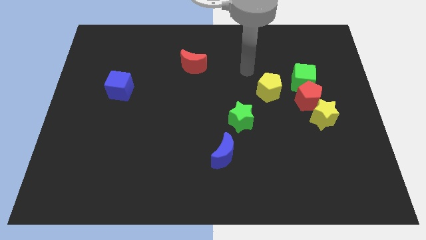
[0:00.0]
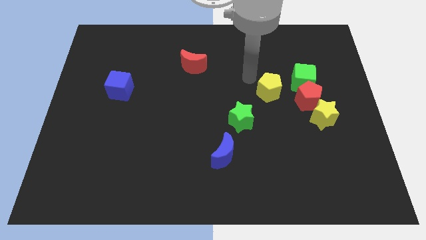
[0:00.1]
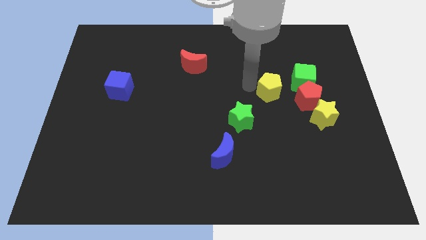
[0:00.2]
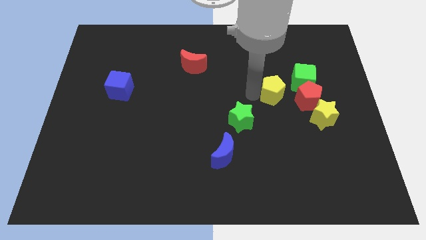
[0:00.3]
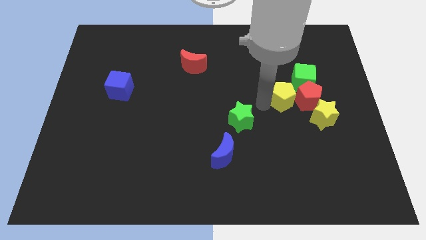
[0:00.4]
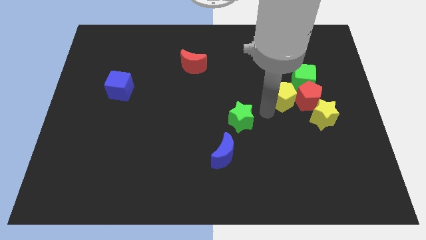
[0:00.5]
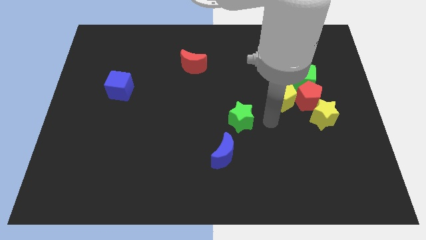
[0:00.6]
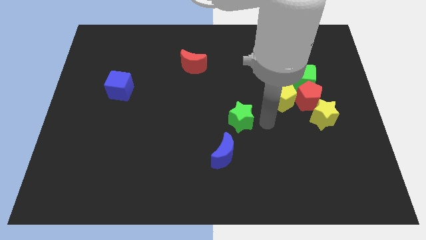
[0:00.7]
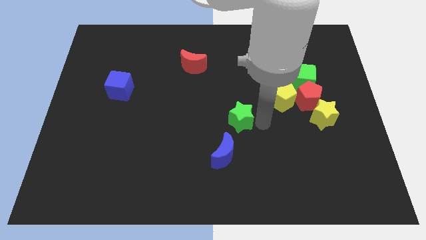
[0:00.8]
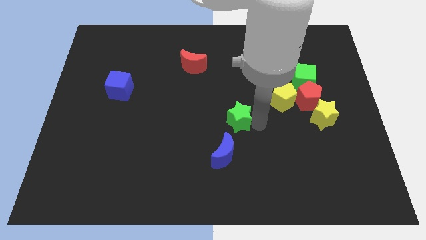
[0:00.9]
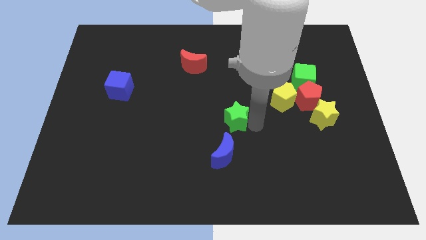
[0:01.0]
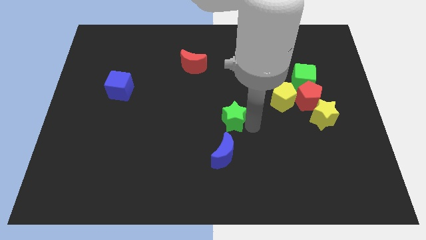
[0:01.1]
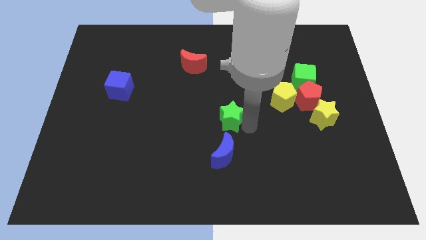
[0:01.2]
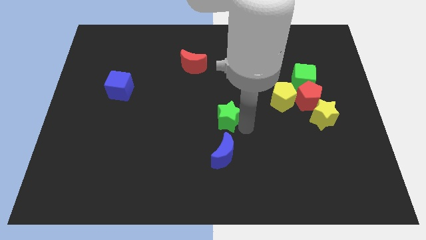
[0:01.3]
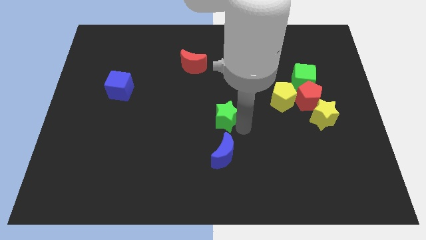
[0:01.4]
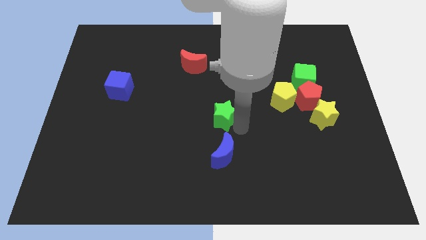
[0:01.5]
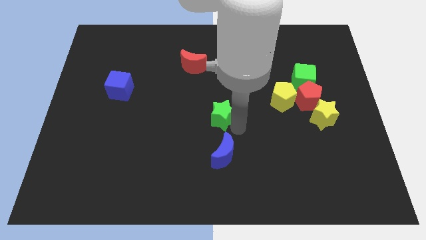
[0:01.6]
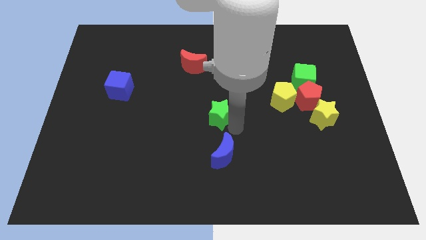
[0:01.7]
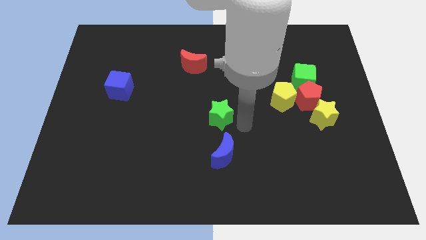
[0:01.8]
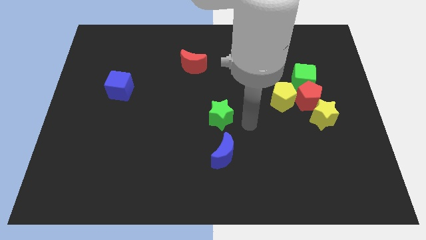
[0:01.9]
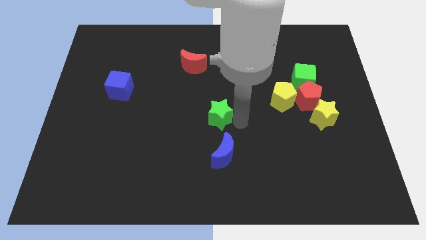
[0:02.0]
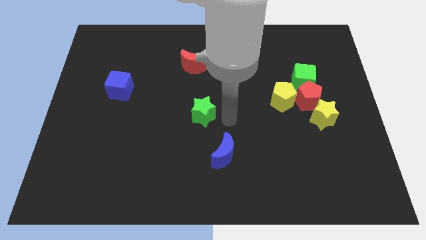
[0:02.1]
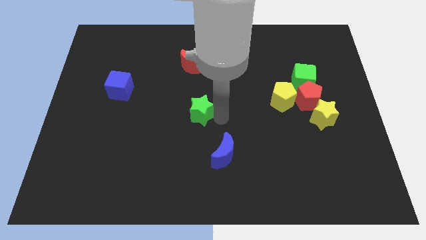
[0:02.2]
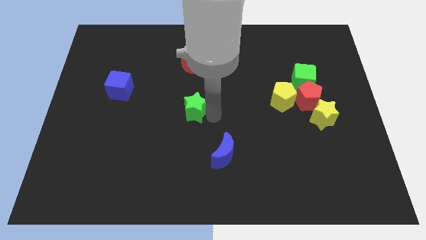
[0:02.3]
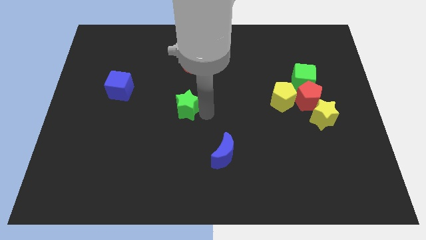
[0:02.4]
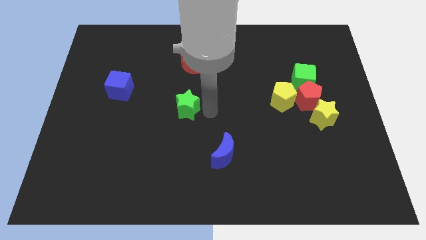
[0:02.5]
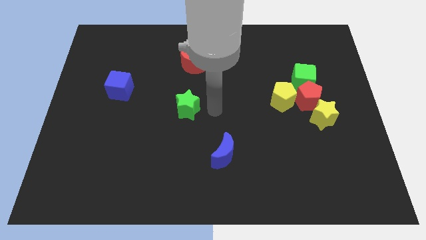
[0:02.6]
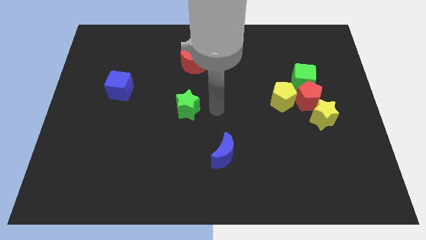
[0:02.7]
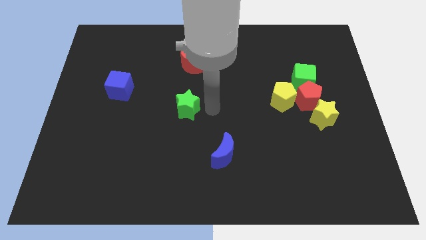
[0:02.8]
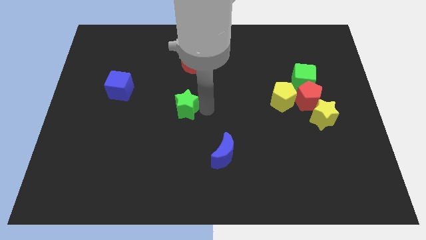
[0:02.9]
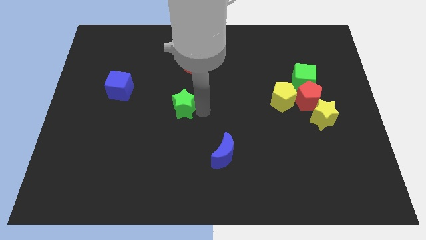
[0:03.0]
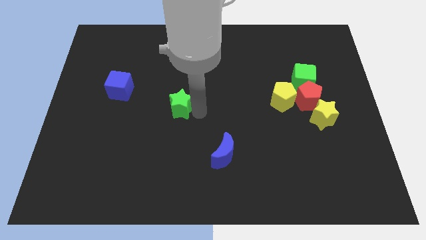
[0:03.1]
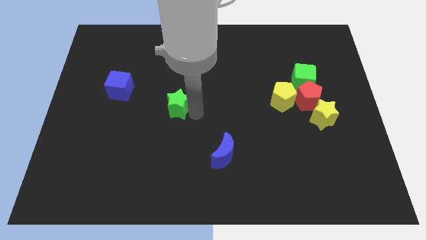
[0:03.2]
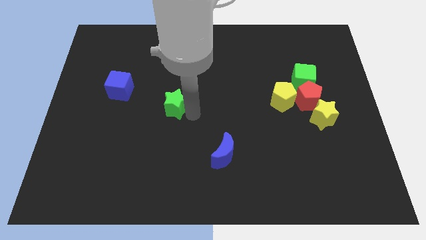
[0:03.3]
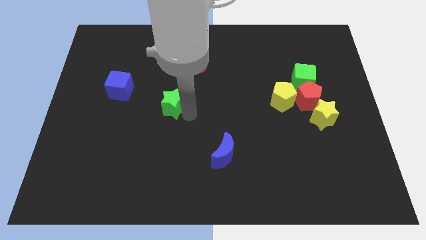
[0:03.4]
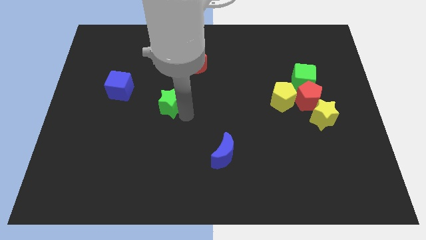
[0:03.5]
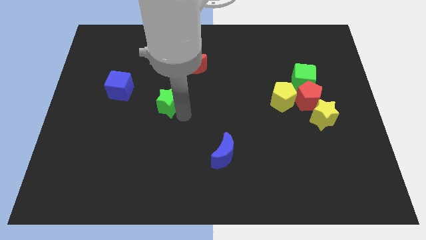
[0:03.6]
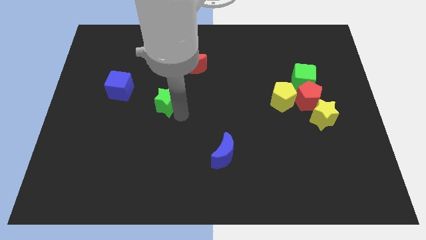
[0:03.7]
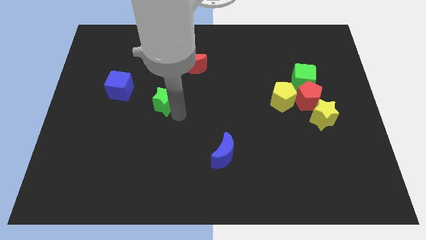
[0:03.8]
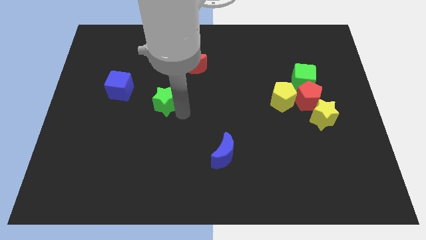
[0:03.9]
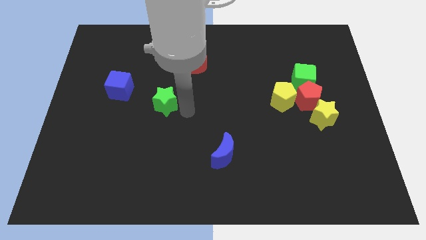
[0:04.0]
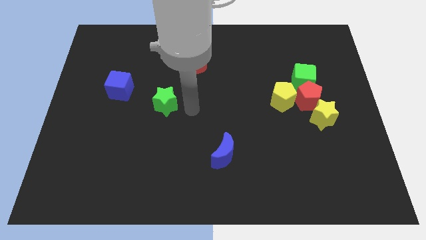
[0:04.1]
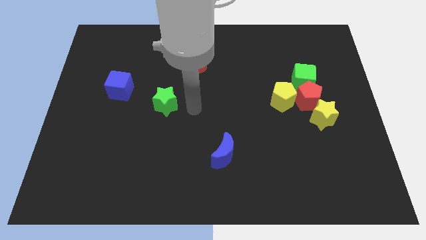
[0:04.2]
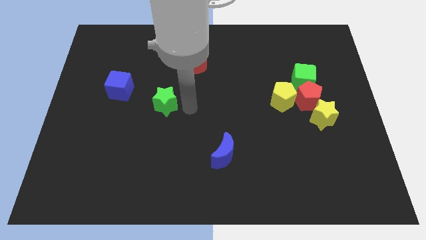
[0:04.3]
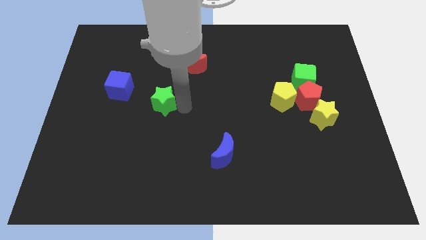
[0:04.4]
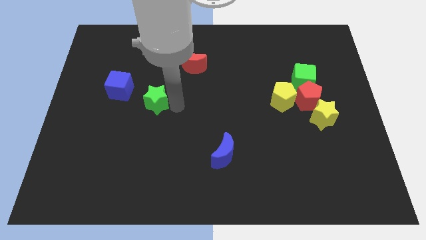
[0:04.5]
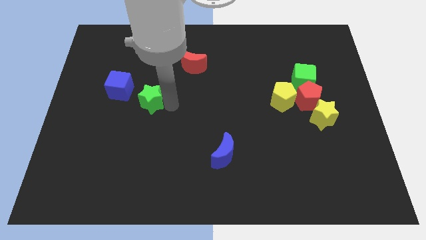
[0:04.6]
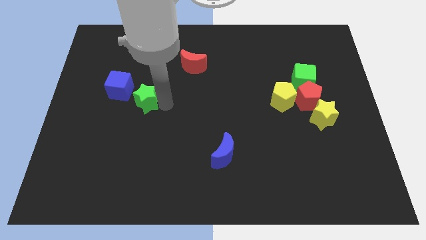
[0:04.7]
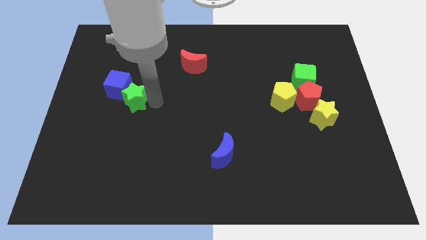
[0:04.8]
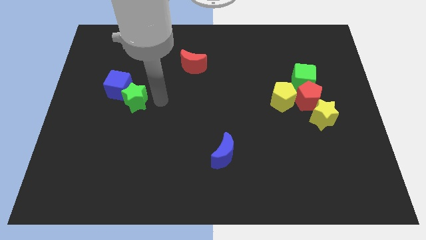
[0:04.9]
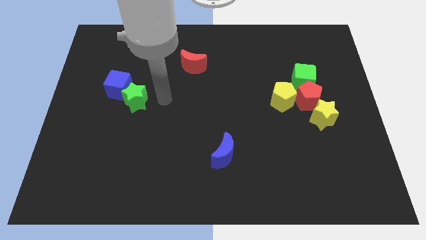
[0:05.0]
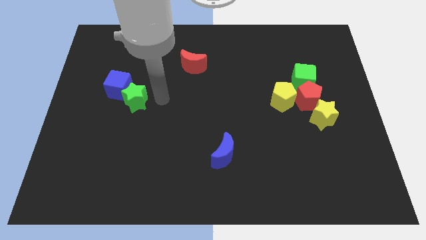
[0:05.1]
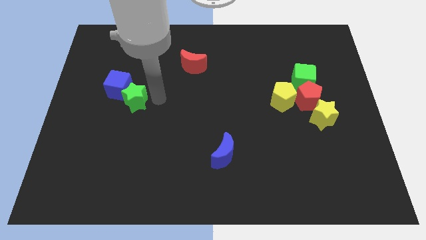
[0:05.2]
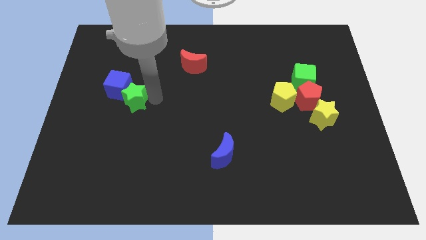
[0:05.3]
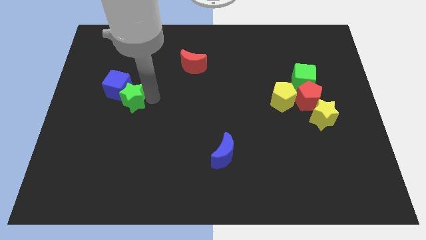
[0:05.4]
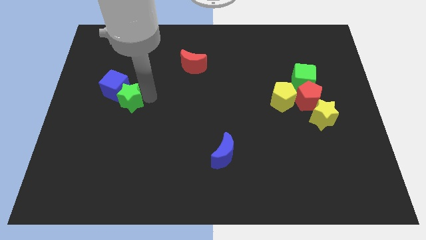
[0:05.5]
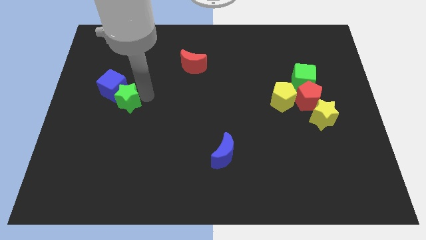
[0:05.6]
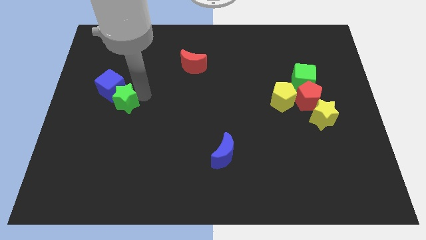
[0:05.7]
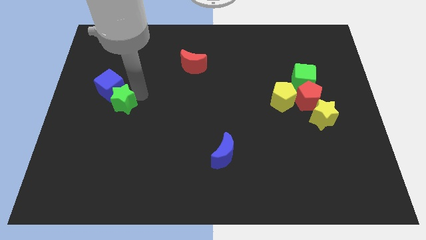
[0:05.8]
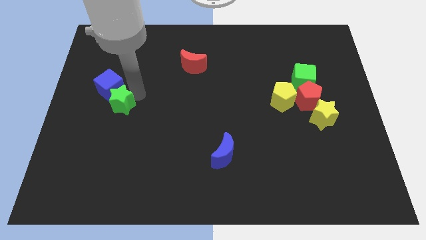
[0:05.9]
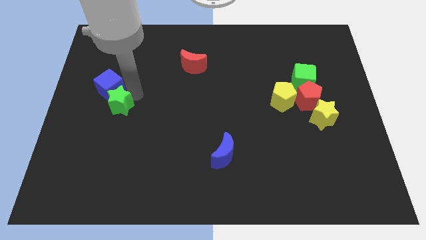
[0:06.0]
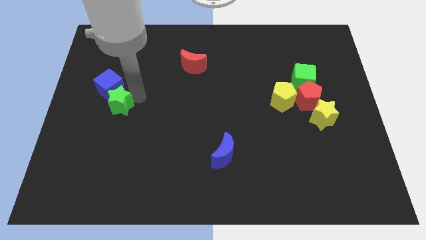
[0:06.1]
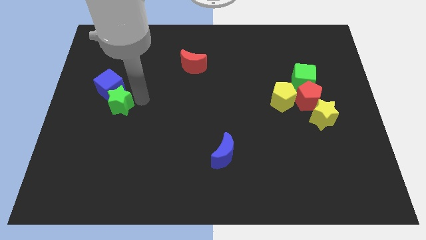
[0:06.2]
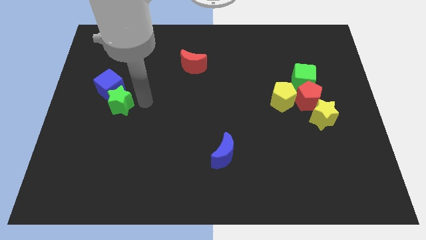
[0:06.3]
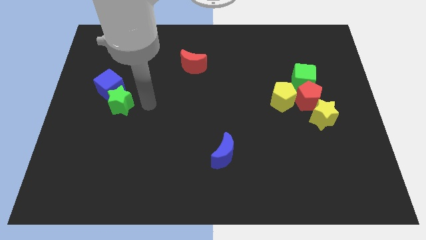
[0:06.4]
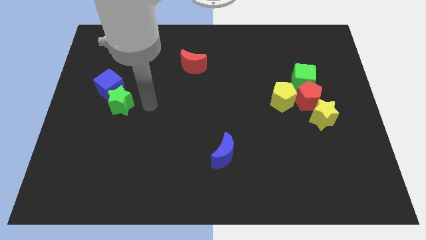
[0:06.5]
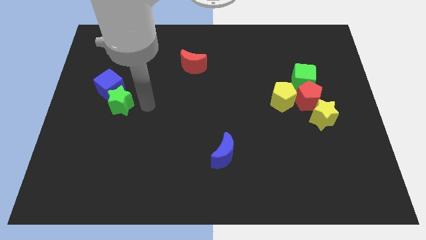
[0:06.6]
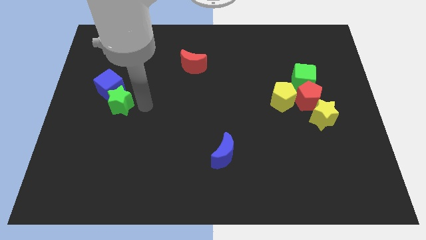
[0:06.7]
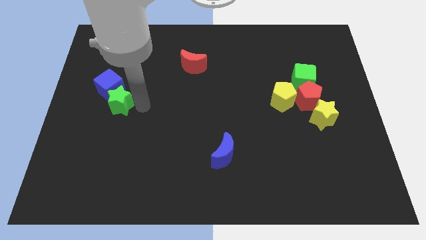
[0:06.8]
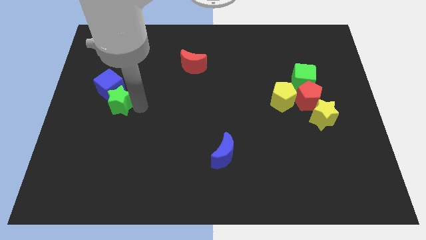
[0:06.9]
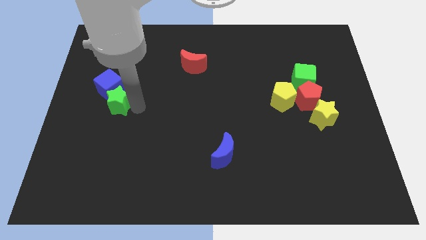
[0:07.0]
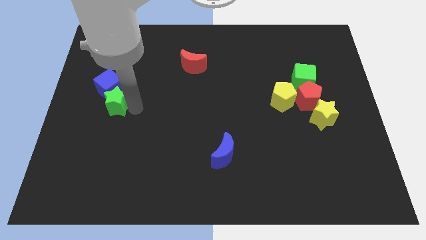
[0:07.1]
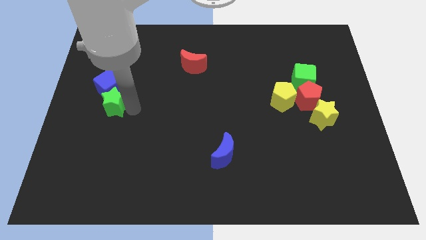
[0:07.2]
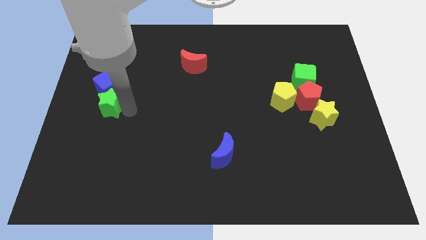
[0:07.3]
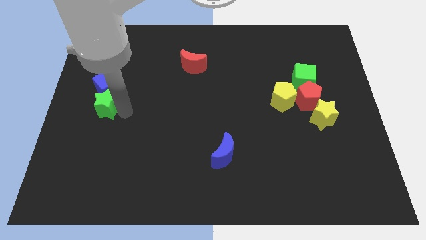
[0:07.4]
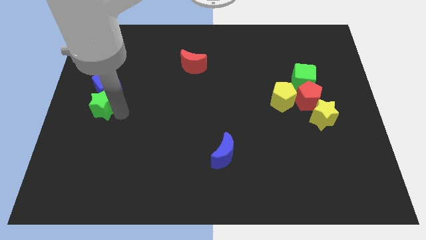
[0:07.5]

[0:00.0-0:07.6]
move the green star to the left side of the board
